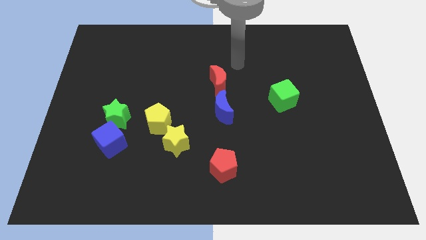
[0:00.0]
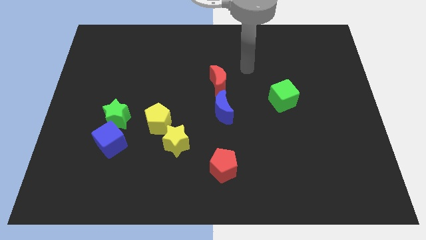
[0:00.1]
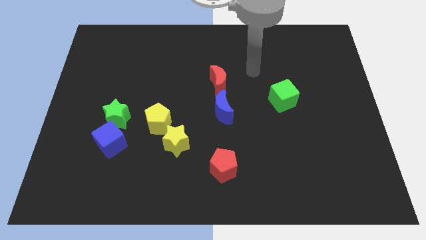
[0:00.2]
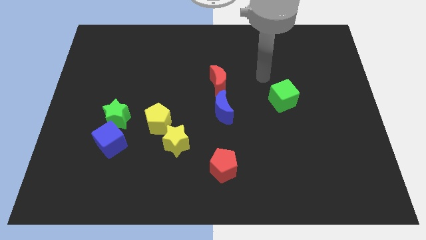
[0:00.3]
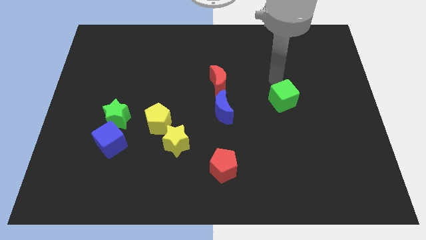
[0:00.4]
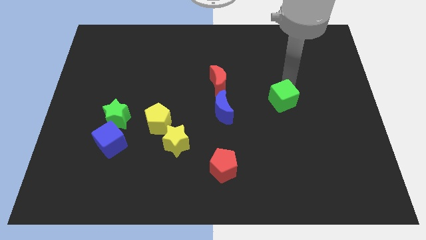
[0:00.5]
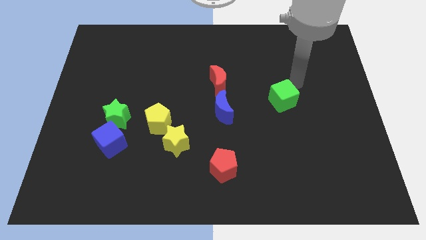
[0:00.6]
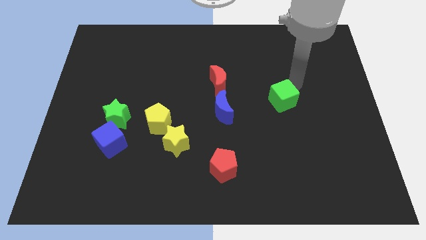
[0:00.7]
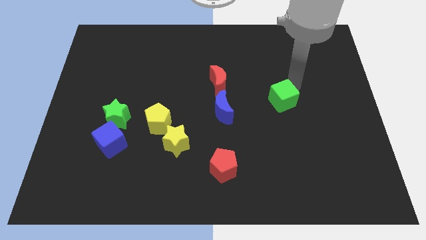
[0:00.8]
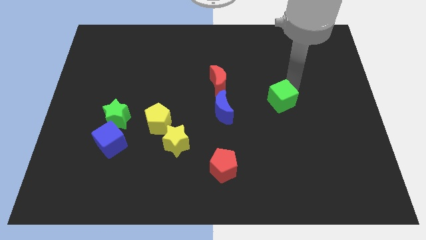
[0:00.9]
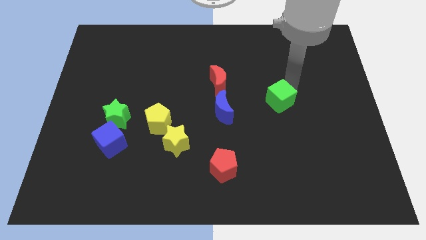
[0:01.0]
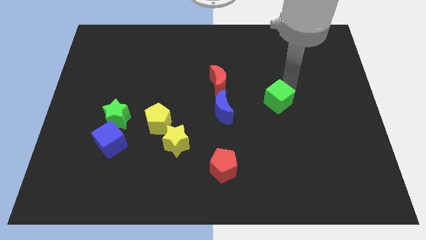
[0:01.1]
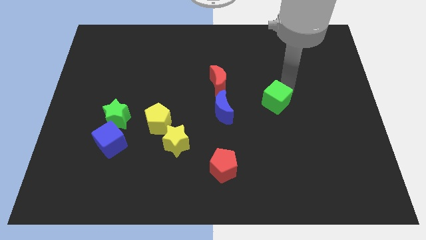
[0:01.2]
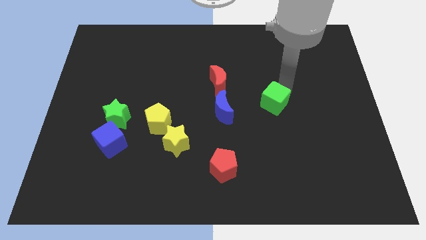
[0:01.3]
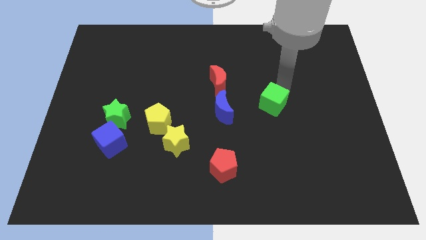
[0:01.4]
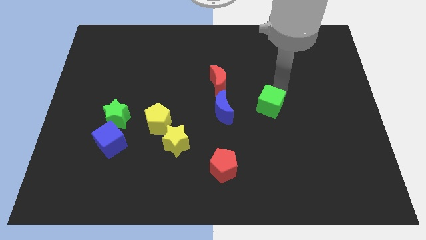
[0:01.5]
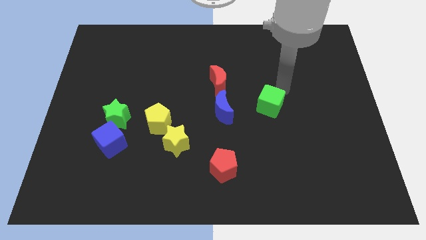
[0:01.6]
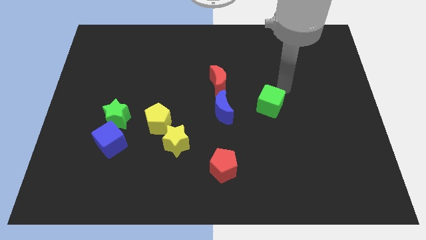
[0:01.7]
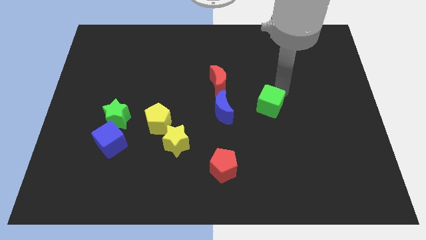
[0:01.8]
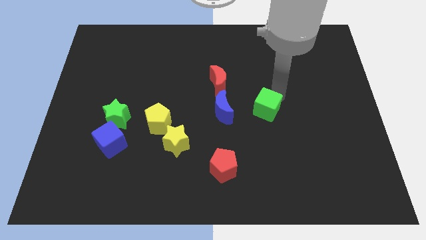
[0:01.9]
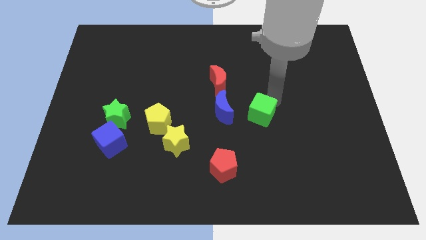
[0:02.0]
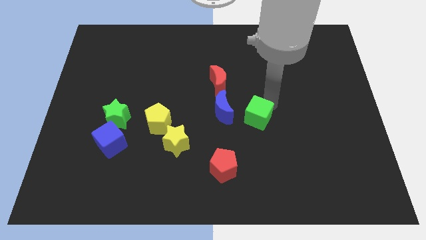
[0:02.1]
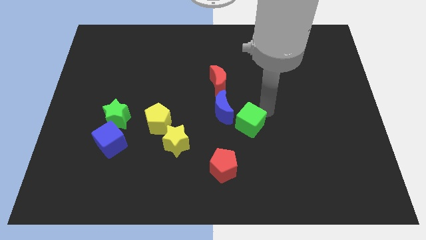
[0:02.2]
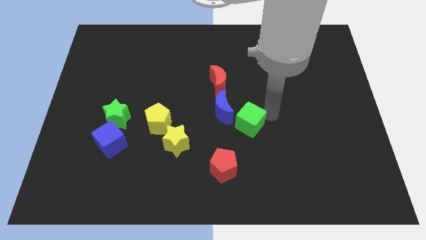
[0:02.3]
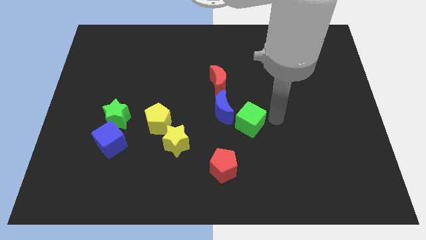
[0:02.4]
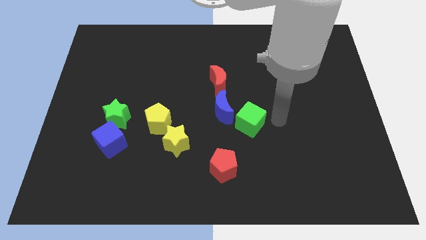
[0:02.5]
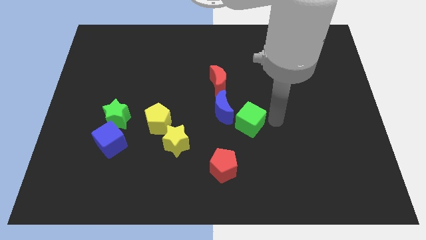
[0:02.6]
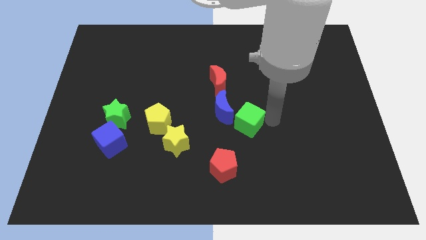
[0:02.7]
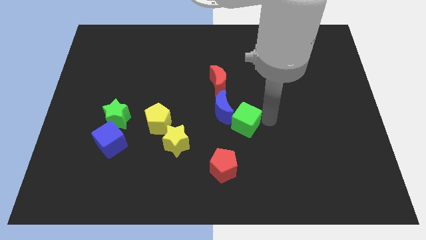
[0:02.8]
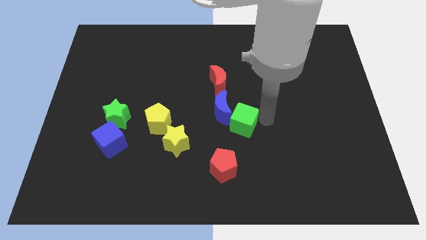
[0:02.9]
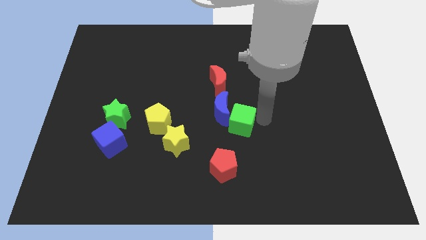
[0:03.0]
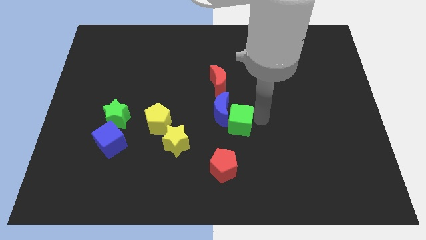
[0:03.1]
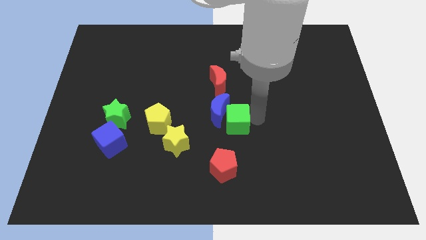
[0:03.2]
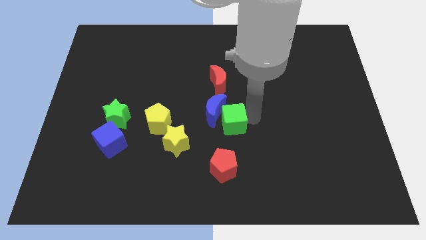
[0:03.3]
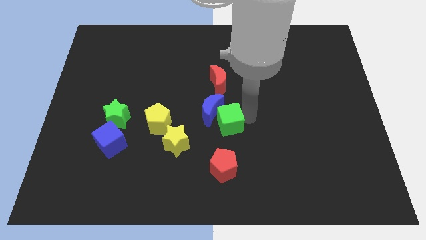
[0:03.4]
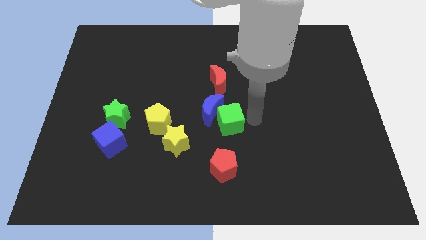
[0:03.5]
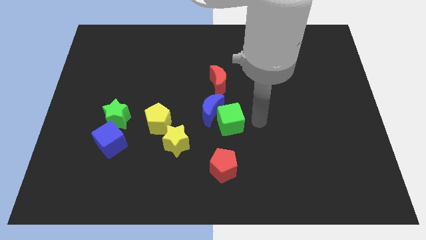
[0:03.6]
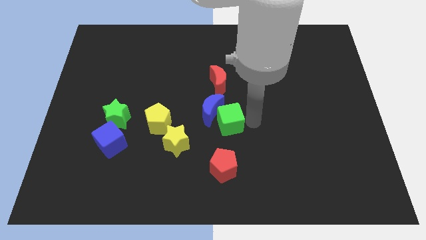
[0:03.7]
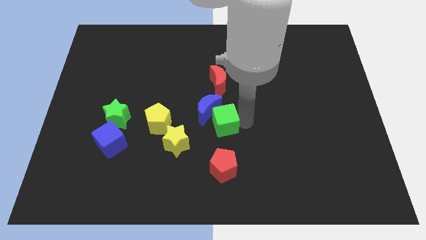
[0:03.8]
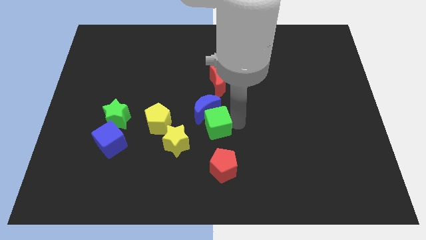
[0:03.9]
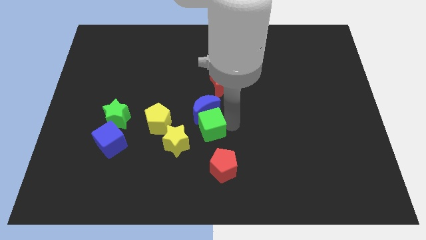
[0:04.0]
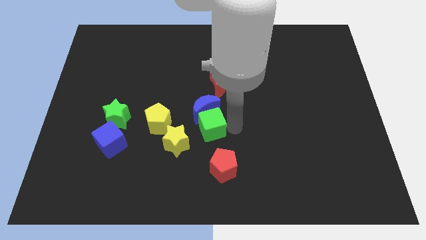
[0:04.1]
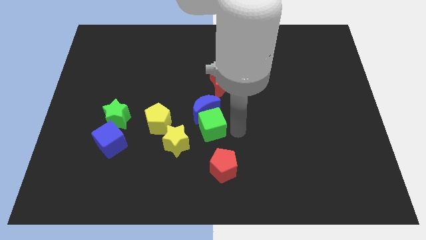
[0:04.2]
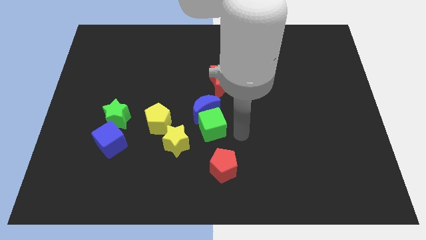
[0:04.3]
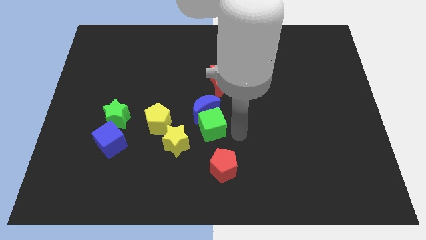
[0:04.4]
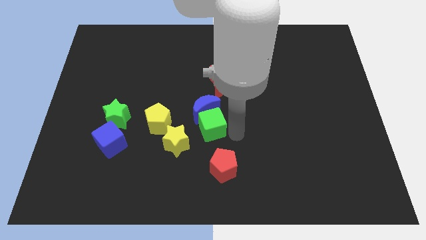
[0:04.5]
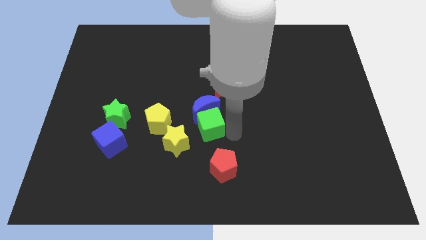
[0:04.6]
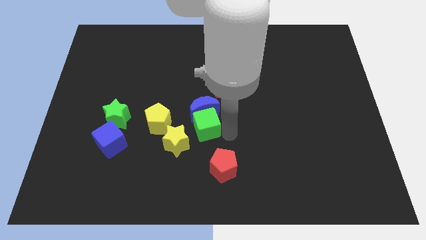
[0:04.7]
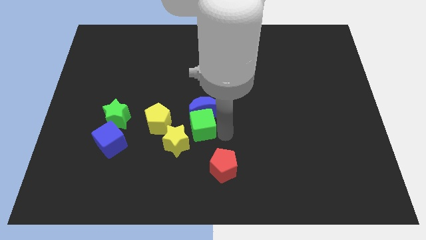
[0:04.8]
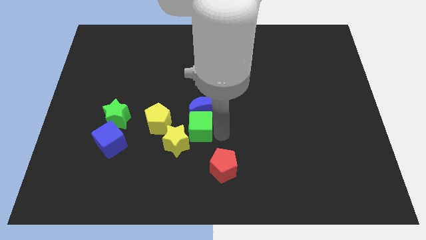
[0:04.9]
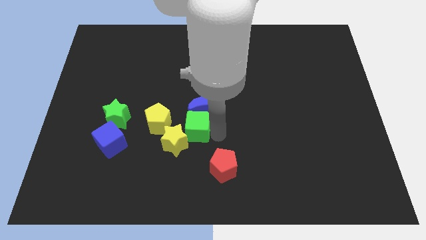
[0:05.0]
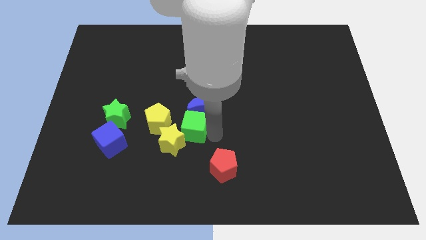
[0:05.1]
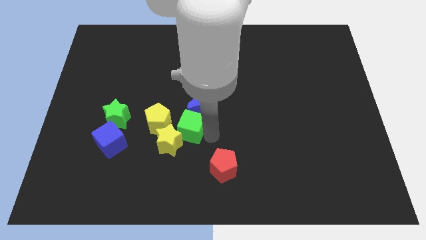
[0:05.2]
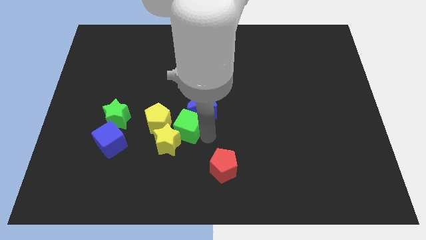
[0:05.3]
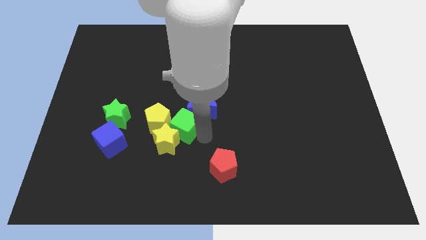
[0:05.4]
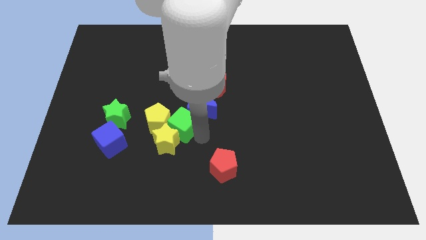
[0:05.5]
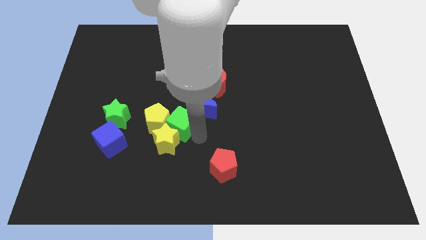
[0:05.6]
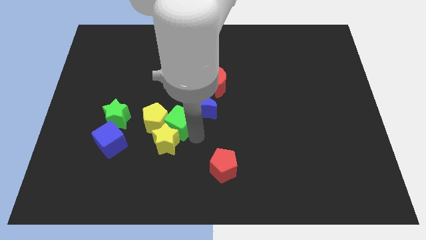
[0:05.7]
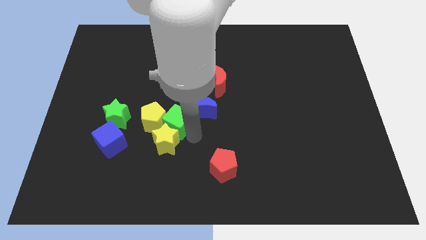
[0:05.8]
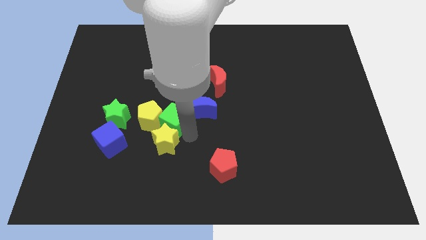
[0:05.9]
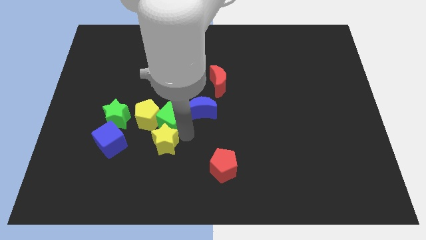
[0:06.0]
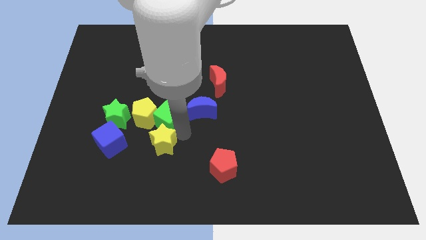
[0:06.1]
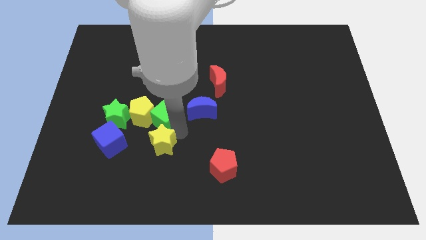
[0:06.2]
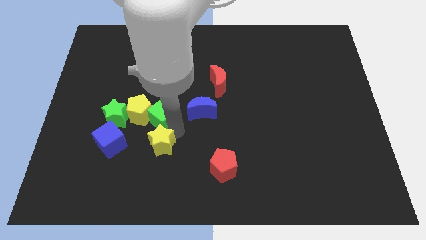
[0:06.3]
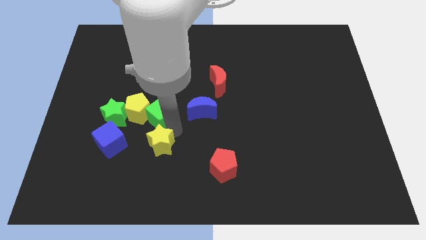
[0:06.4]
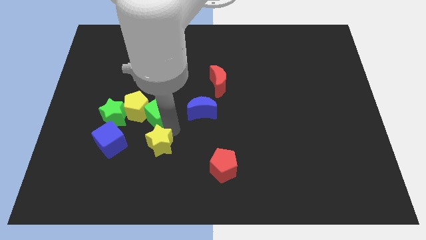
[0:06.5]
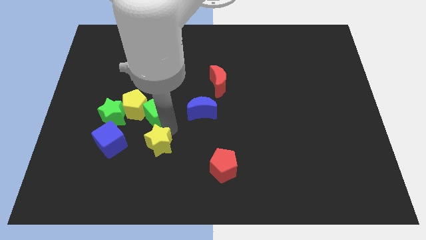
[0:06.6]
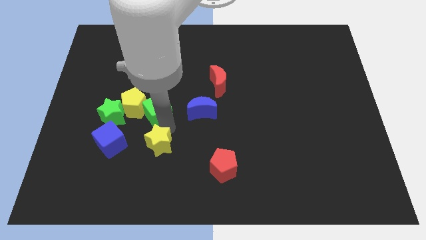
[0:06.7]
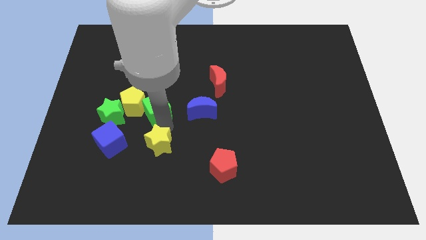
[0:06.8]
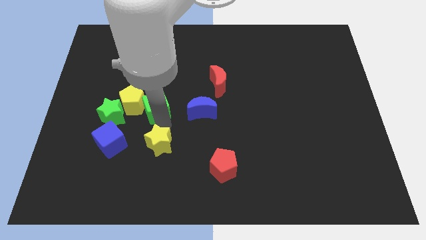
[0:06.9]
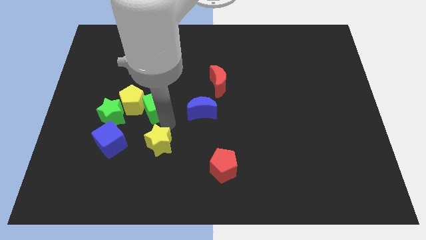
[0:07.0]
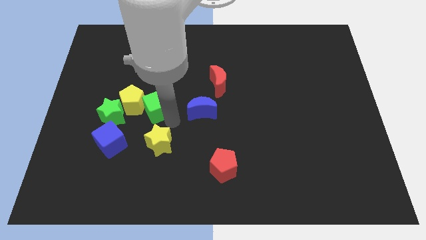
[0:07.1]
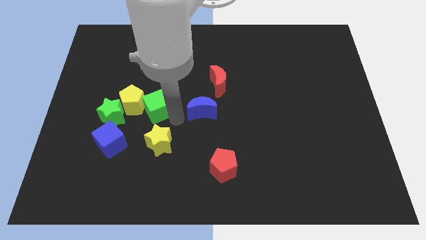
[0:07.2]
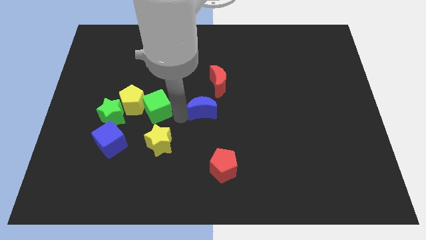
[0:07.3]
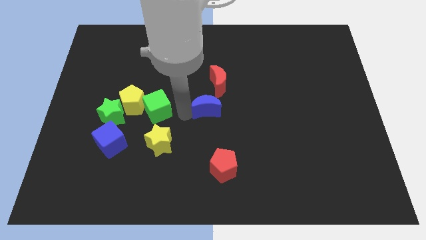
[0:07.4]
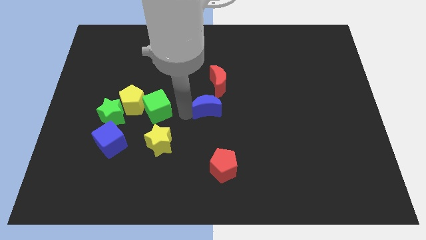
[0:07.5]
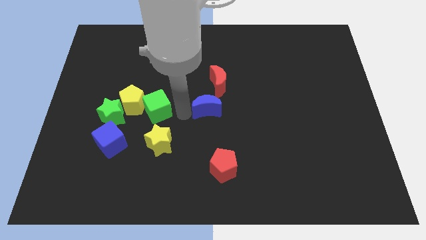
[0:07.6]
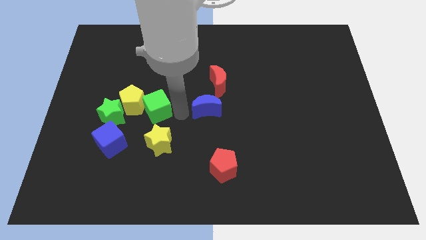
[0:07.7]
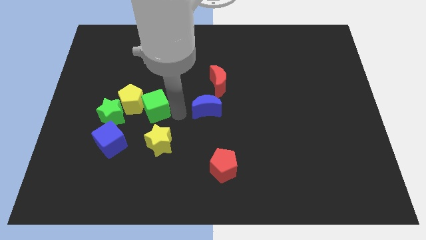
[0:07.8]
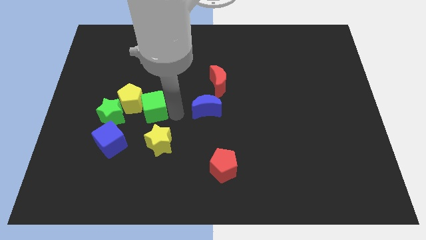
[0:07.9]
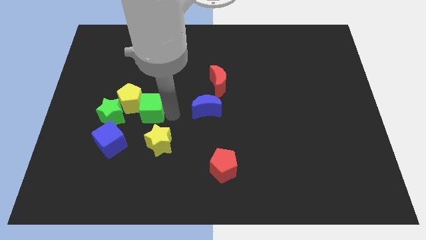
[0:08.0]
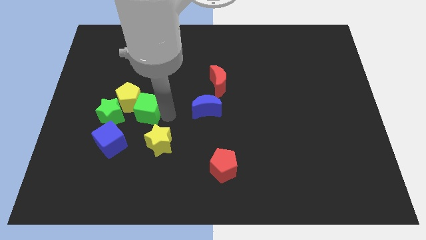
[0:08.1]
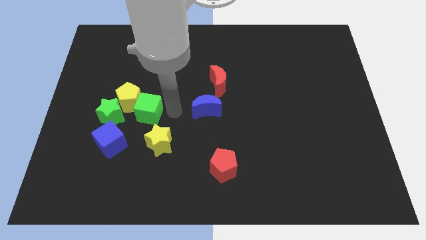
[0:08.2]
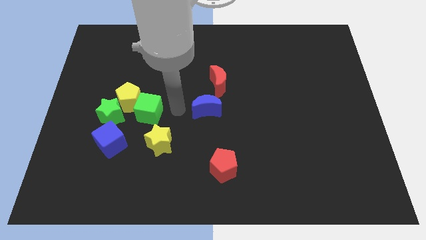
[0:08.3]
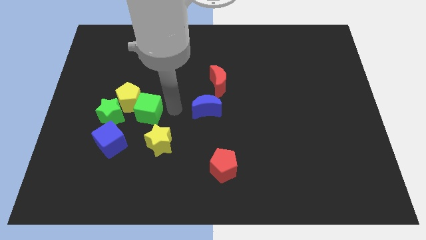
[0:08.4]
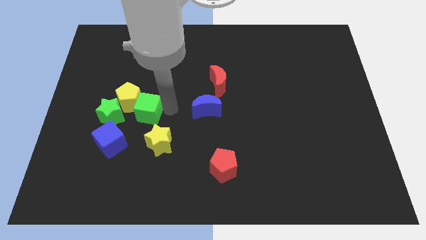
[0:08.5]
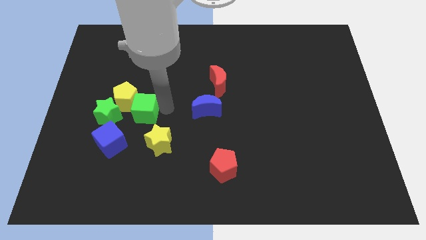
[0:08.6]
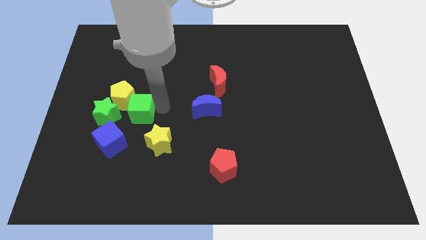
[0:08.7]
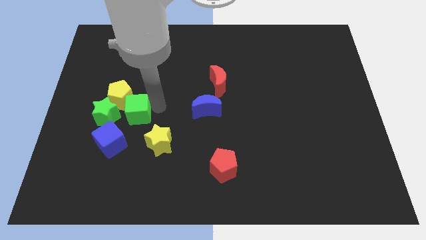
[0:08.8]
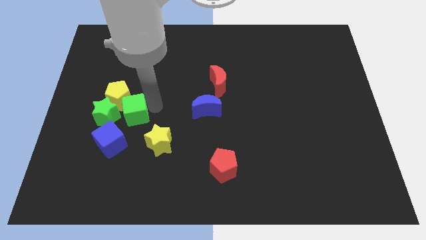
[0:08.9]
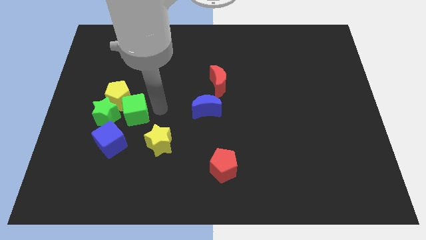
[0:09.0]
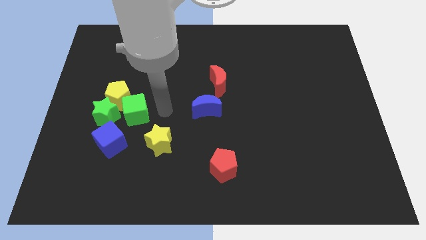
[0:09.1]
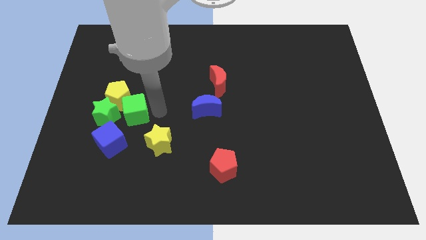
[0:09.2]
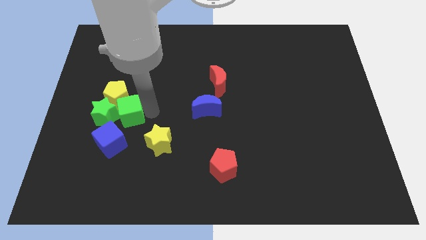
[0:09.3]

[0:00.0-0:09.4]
push the green cube next to the green star
